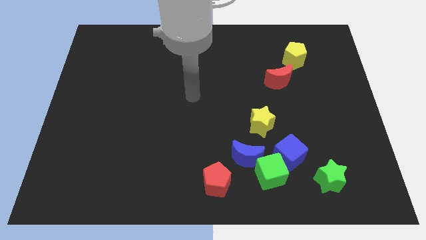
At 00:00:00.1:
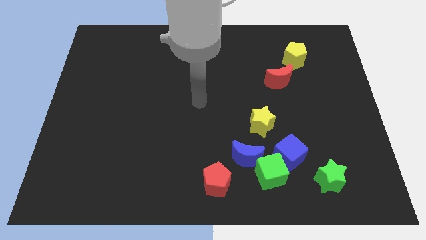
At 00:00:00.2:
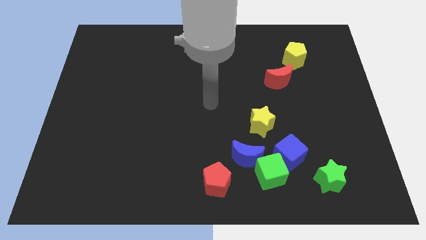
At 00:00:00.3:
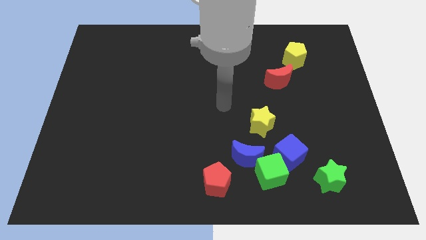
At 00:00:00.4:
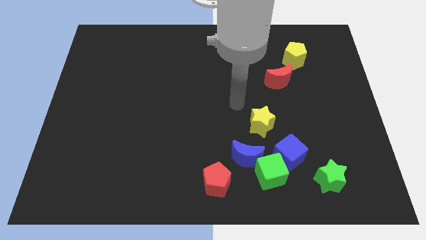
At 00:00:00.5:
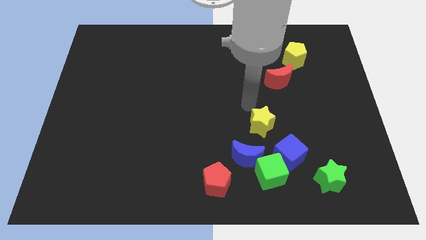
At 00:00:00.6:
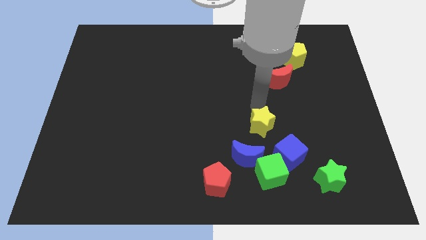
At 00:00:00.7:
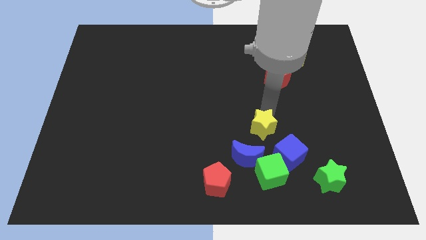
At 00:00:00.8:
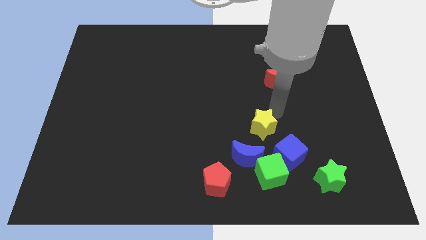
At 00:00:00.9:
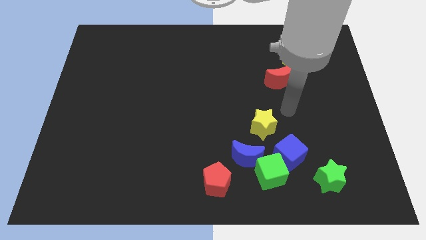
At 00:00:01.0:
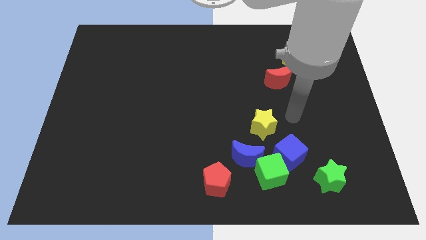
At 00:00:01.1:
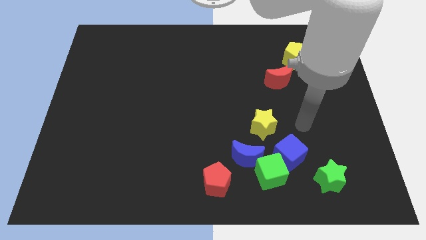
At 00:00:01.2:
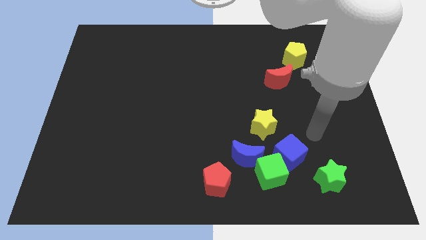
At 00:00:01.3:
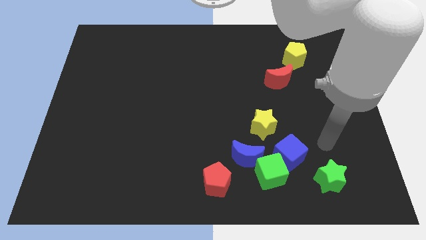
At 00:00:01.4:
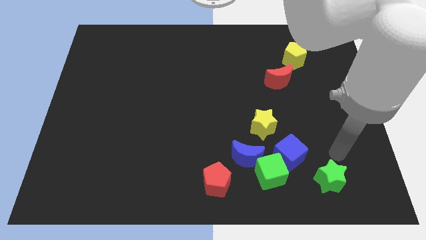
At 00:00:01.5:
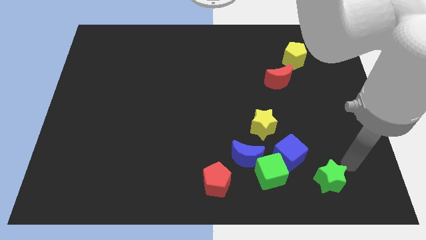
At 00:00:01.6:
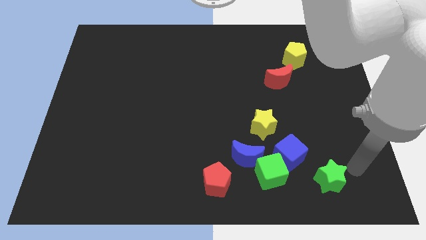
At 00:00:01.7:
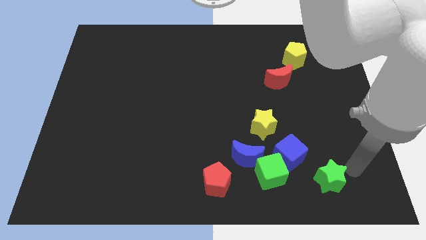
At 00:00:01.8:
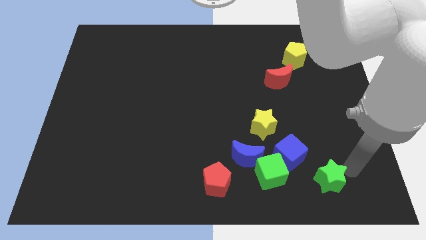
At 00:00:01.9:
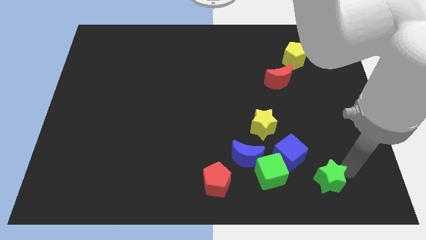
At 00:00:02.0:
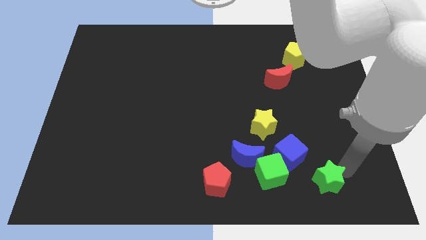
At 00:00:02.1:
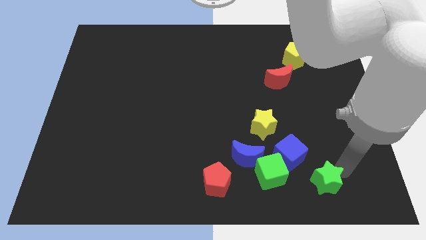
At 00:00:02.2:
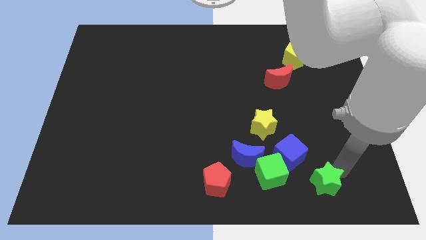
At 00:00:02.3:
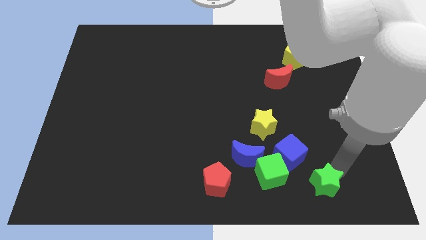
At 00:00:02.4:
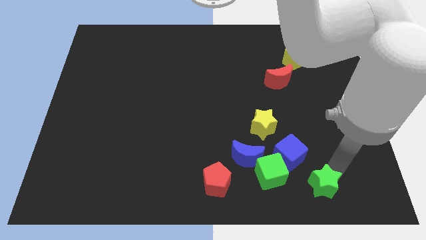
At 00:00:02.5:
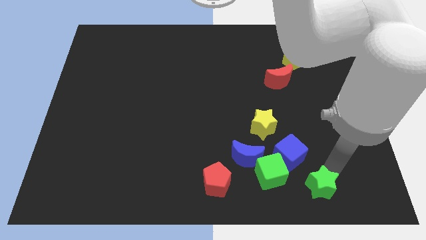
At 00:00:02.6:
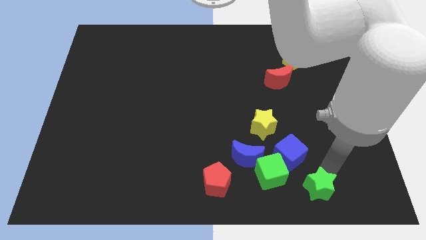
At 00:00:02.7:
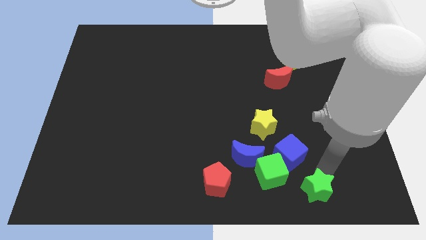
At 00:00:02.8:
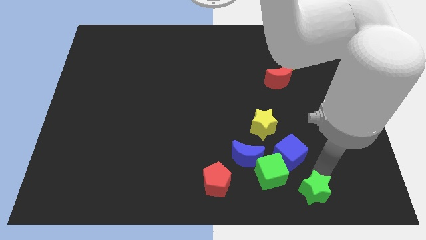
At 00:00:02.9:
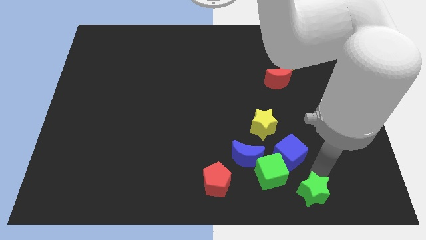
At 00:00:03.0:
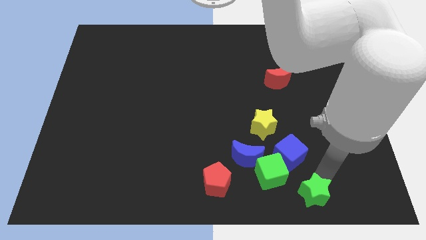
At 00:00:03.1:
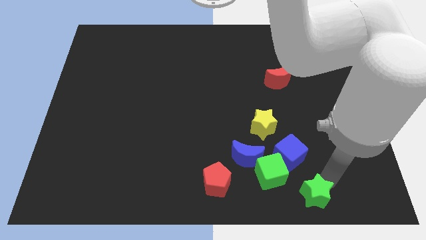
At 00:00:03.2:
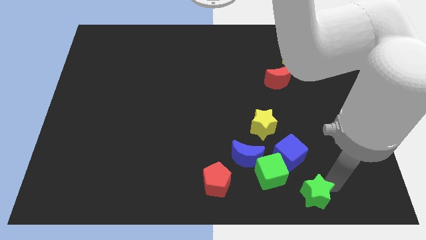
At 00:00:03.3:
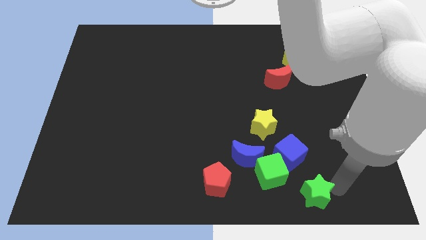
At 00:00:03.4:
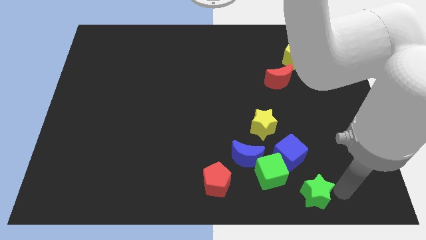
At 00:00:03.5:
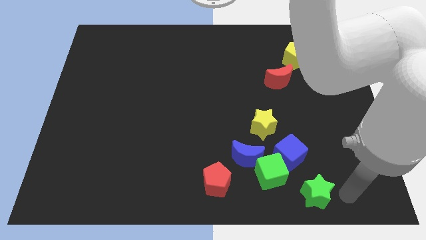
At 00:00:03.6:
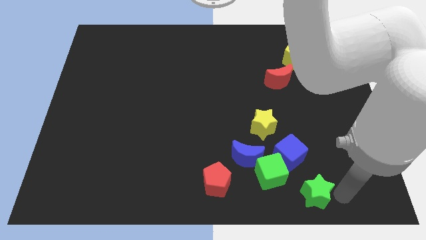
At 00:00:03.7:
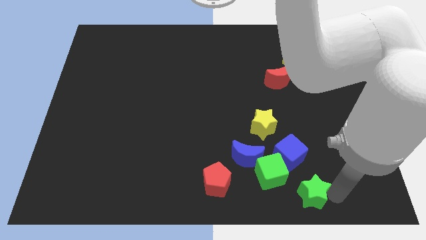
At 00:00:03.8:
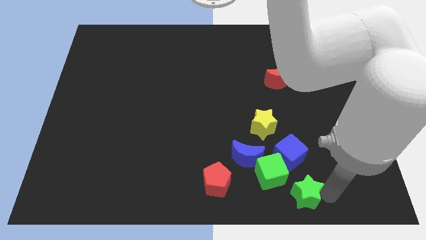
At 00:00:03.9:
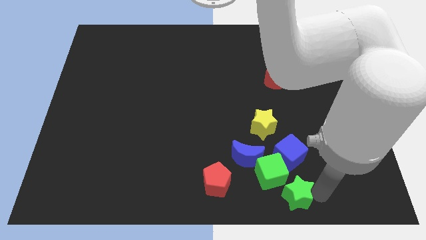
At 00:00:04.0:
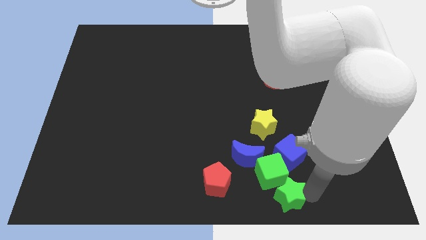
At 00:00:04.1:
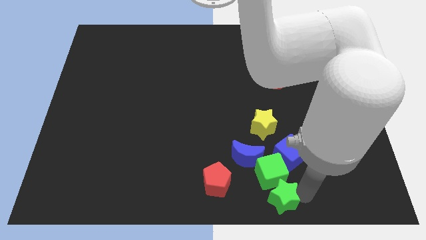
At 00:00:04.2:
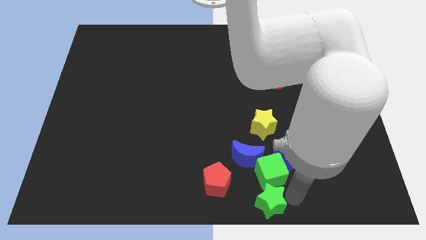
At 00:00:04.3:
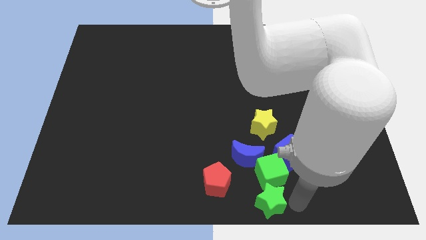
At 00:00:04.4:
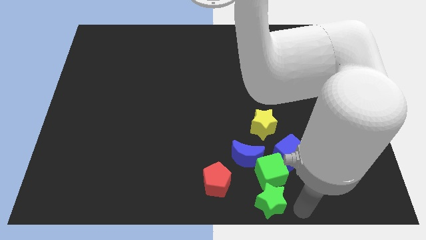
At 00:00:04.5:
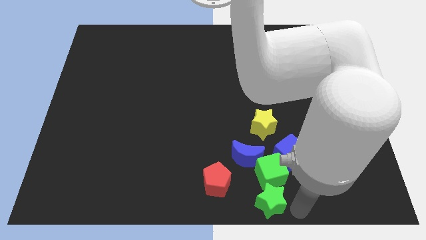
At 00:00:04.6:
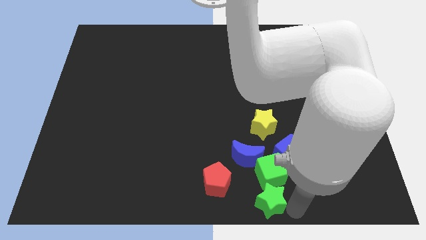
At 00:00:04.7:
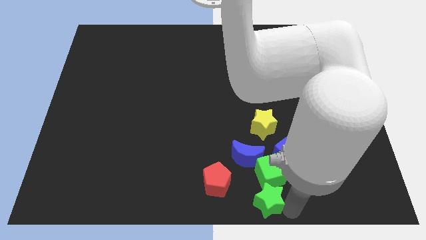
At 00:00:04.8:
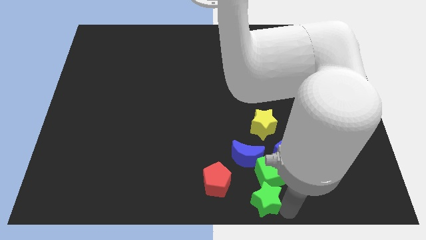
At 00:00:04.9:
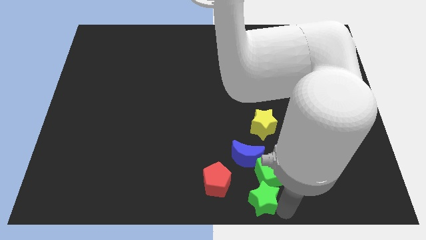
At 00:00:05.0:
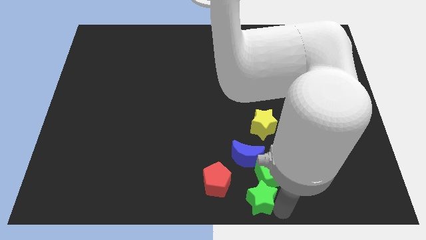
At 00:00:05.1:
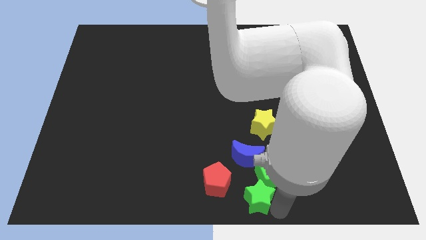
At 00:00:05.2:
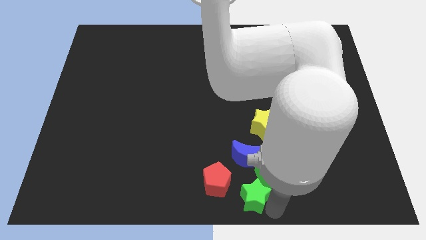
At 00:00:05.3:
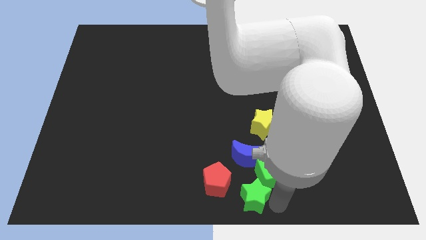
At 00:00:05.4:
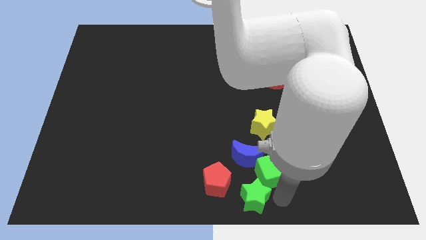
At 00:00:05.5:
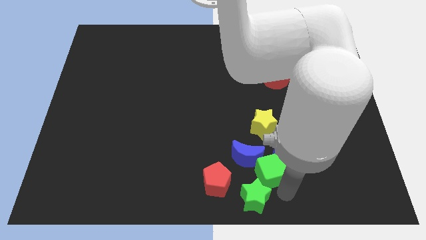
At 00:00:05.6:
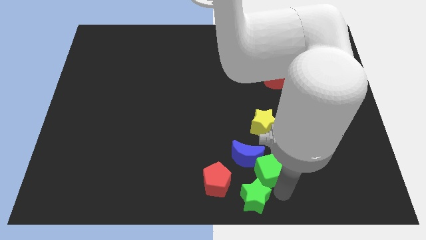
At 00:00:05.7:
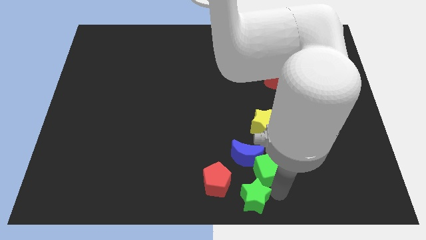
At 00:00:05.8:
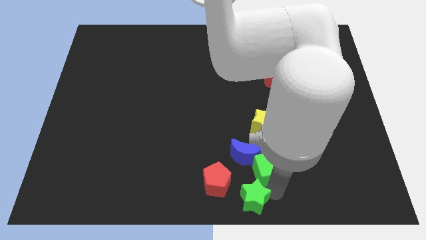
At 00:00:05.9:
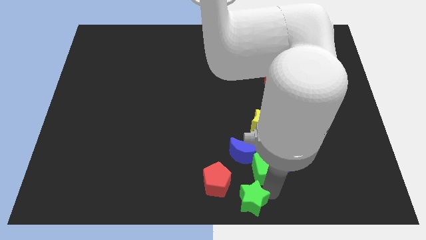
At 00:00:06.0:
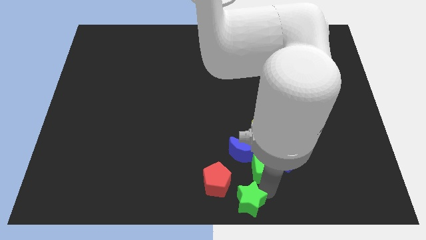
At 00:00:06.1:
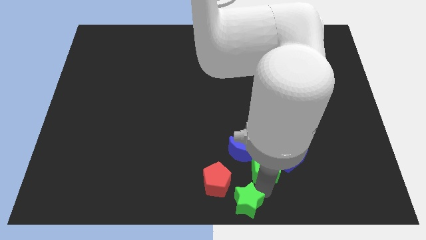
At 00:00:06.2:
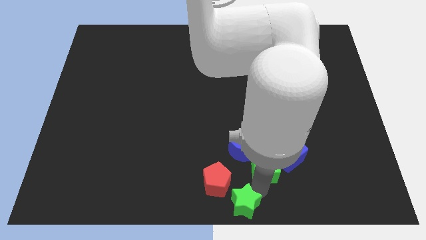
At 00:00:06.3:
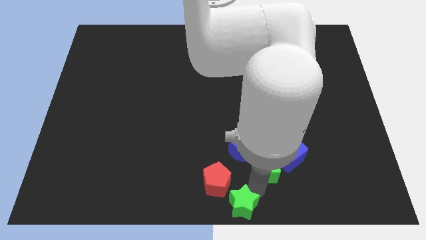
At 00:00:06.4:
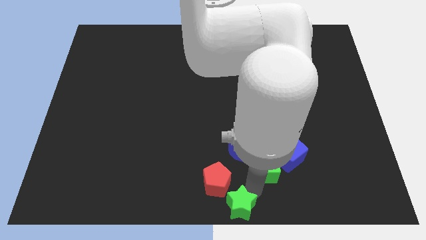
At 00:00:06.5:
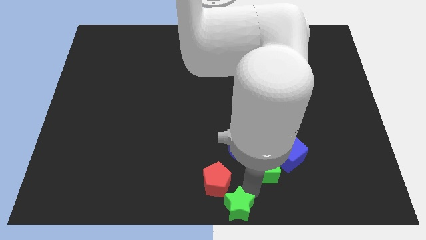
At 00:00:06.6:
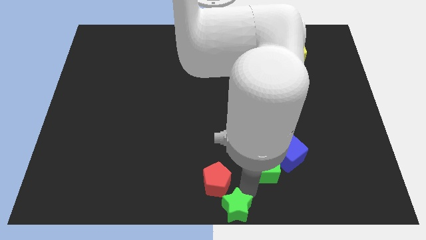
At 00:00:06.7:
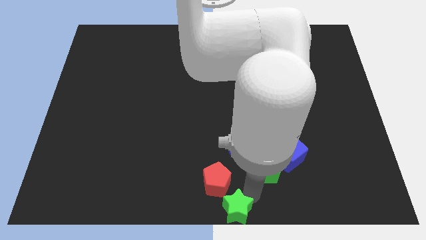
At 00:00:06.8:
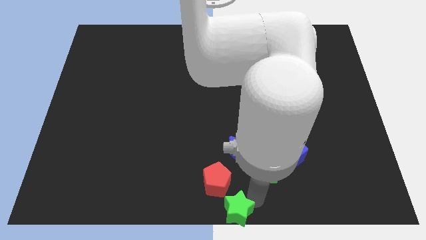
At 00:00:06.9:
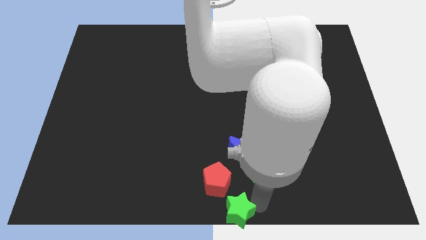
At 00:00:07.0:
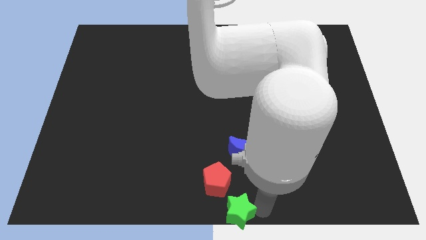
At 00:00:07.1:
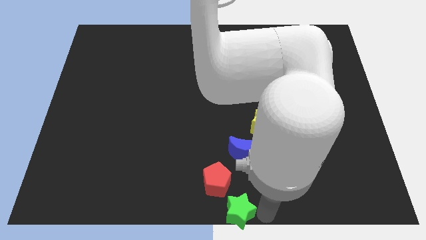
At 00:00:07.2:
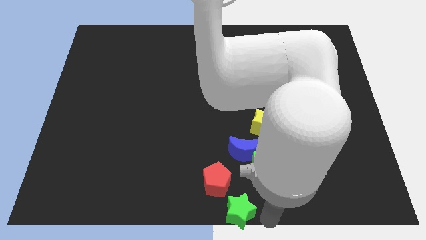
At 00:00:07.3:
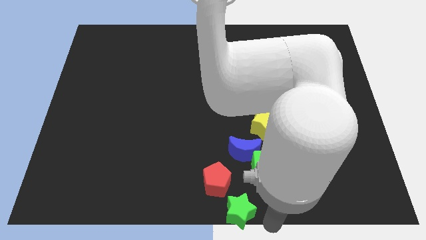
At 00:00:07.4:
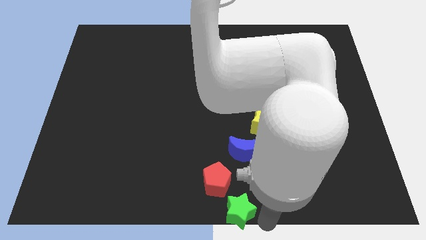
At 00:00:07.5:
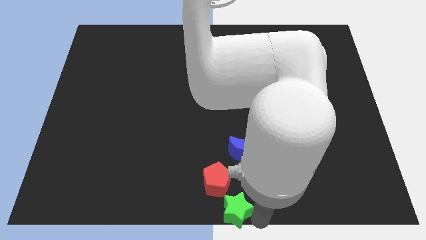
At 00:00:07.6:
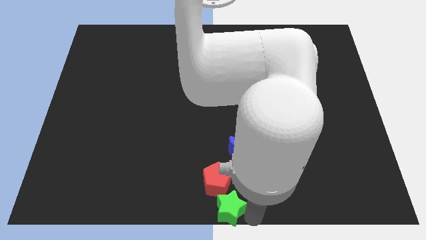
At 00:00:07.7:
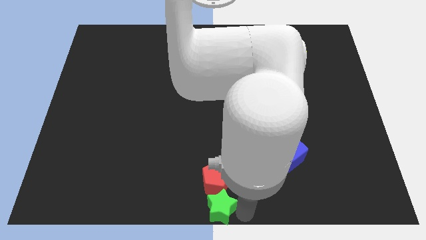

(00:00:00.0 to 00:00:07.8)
move the green star to the left

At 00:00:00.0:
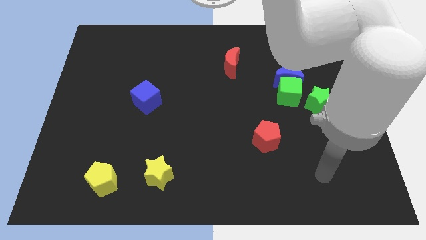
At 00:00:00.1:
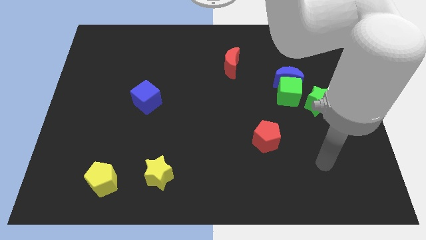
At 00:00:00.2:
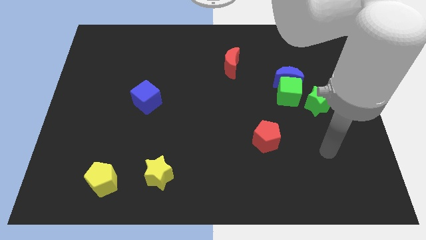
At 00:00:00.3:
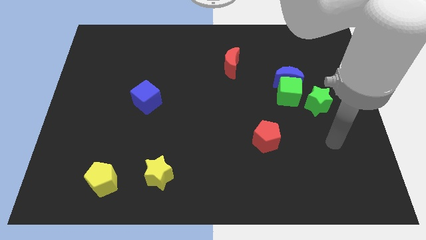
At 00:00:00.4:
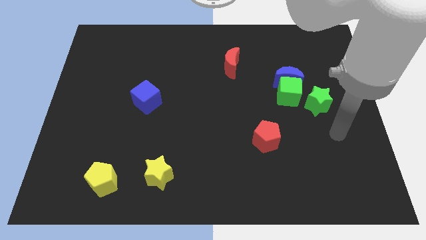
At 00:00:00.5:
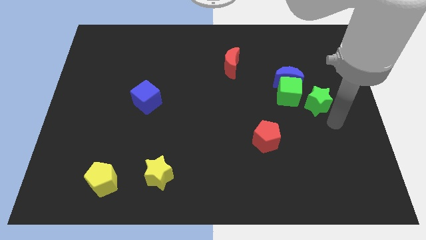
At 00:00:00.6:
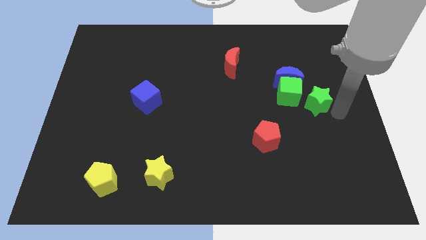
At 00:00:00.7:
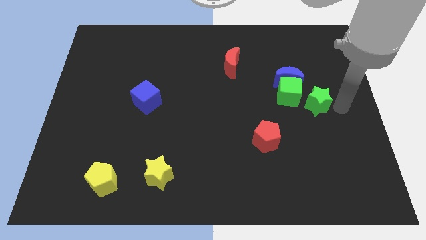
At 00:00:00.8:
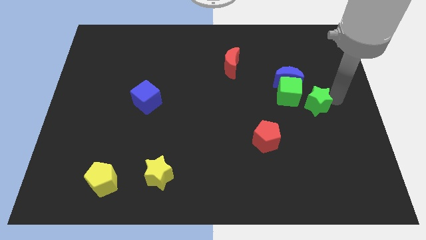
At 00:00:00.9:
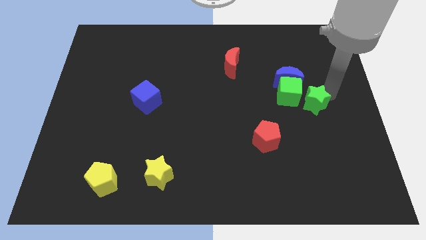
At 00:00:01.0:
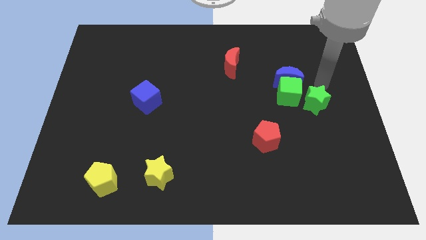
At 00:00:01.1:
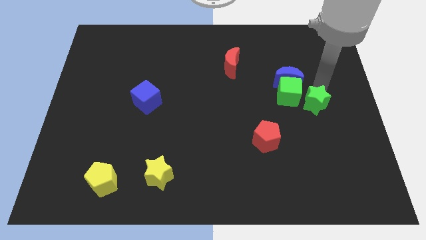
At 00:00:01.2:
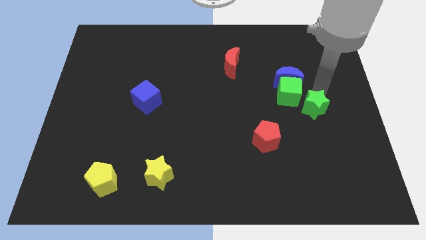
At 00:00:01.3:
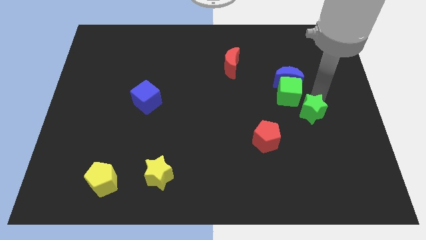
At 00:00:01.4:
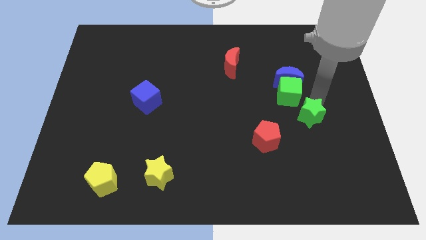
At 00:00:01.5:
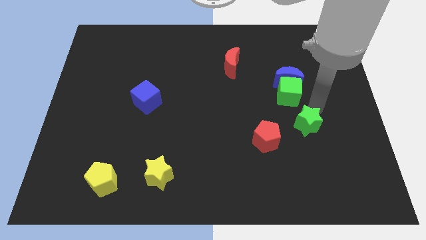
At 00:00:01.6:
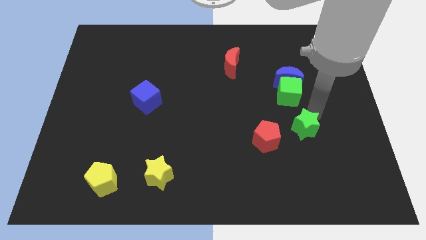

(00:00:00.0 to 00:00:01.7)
move the green star downwards and left a little
